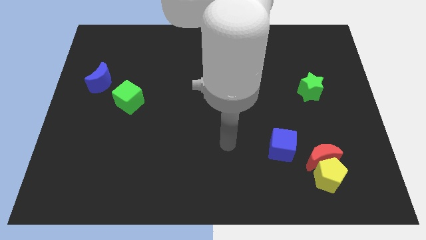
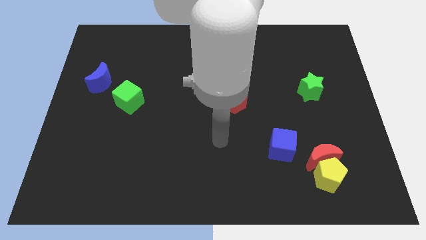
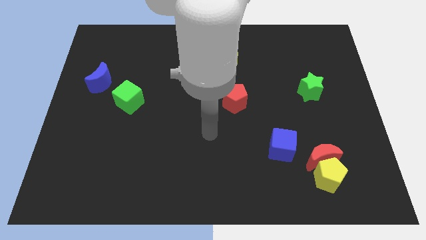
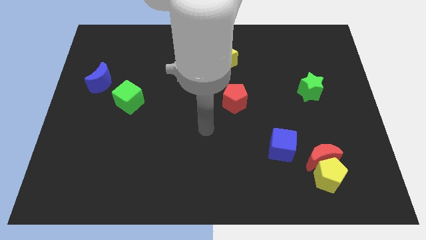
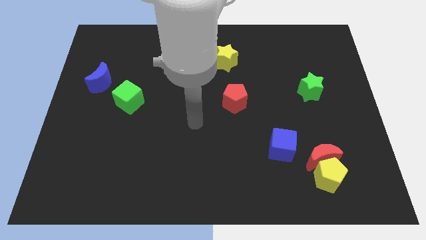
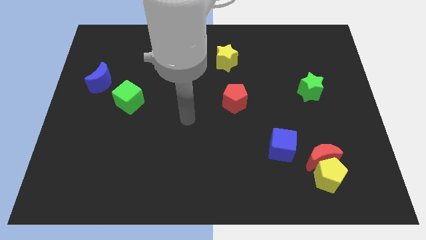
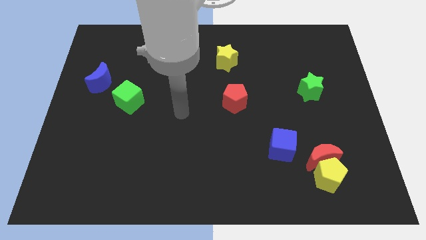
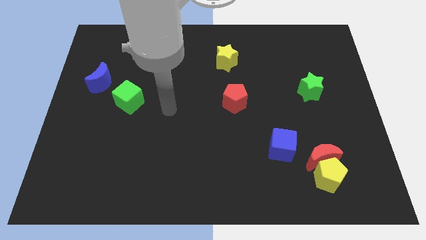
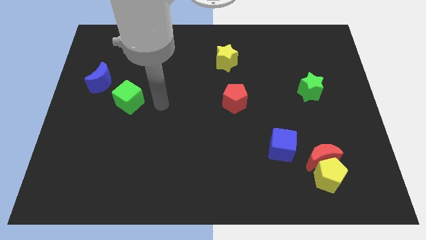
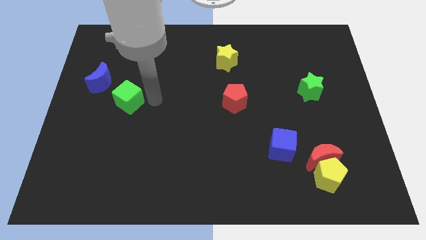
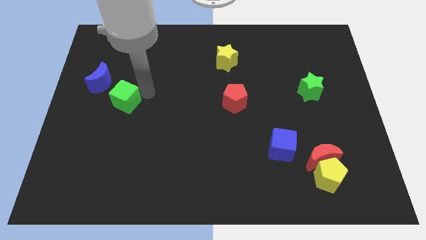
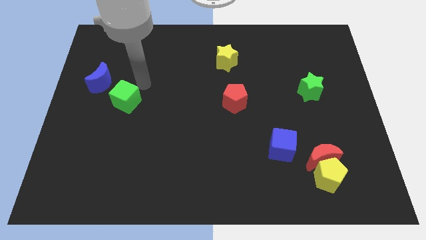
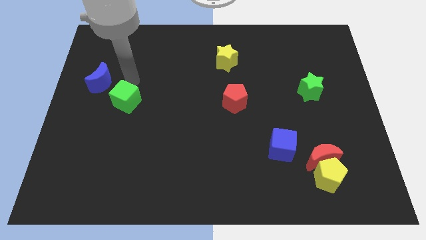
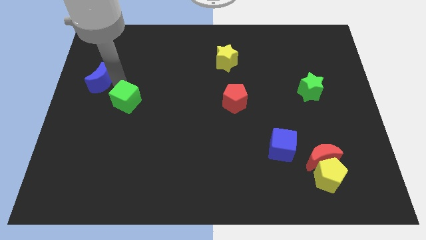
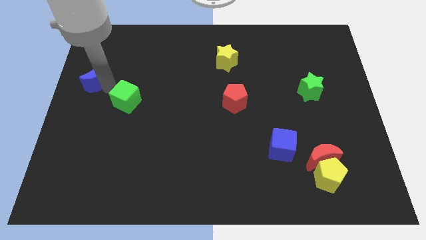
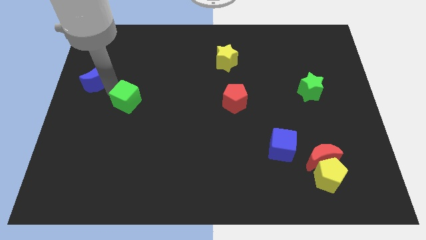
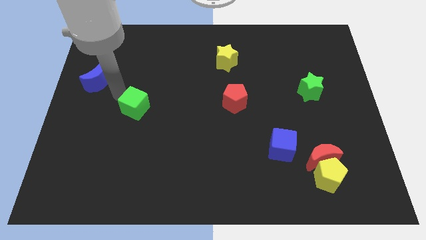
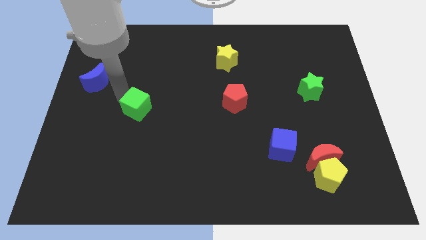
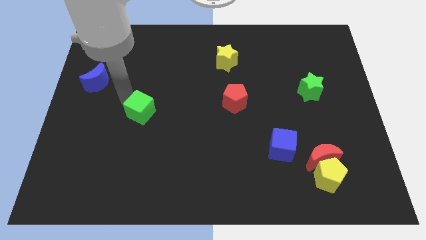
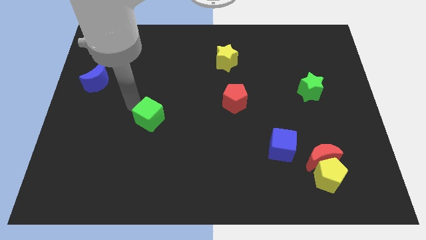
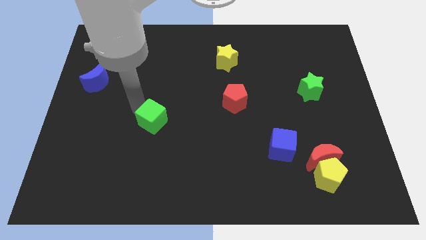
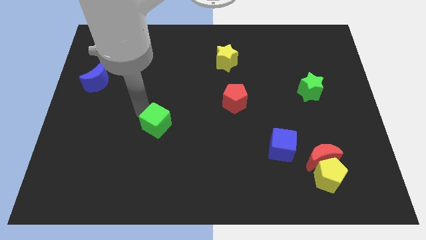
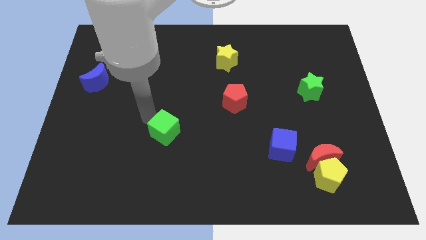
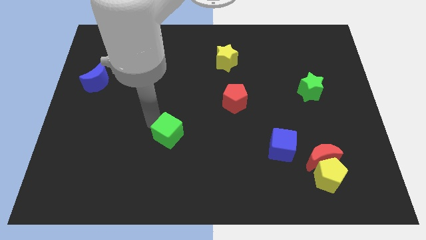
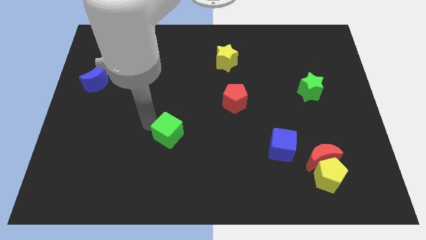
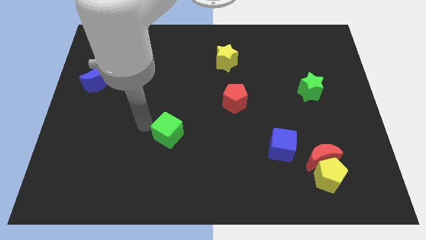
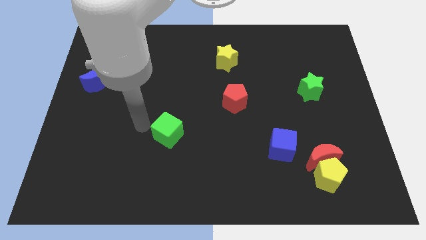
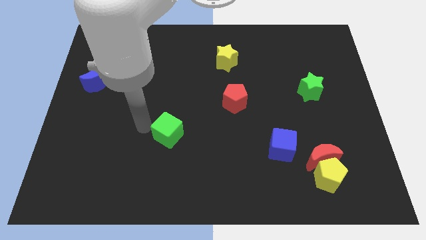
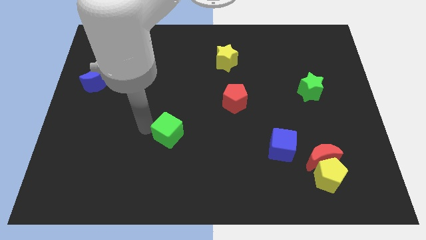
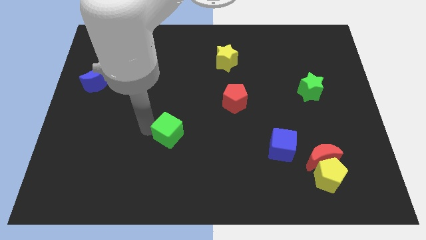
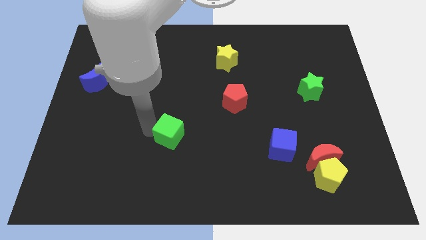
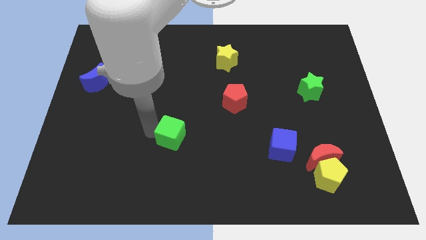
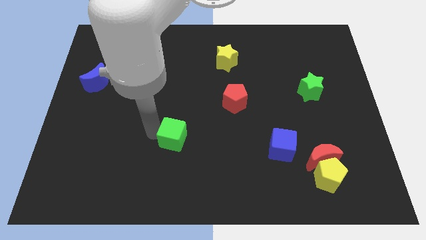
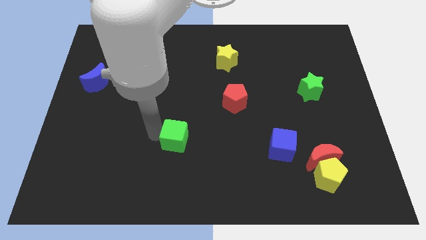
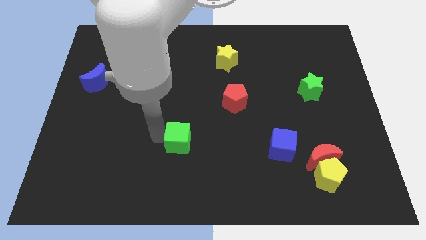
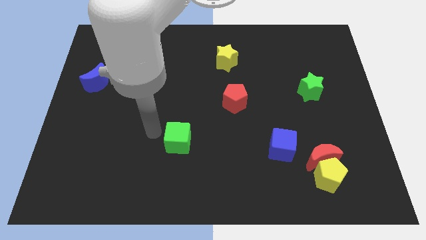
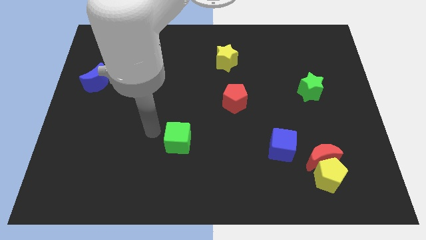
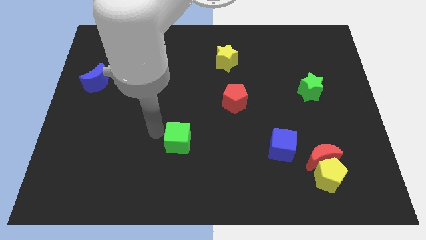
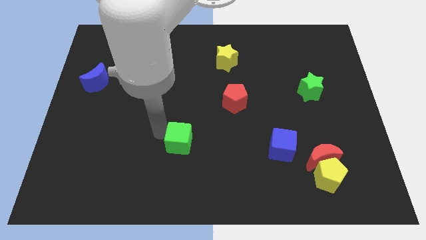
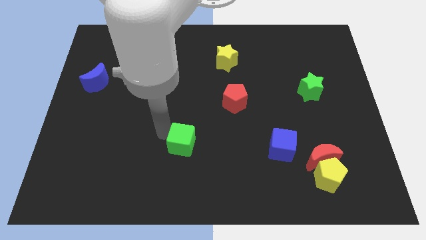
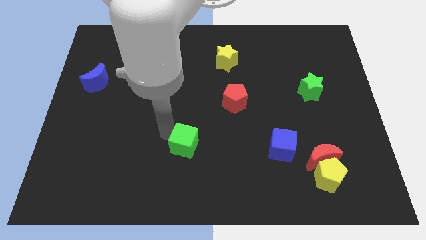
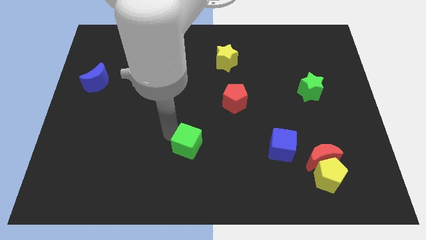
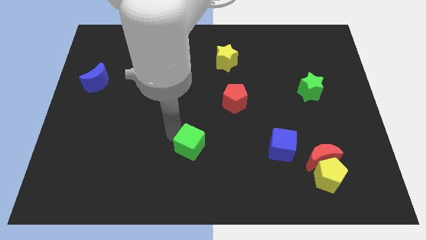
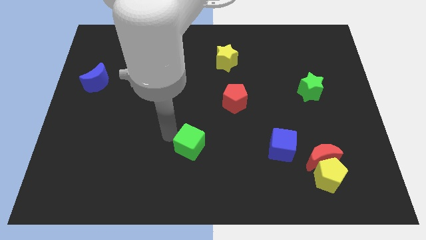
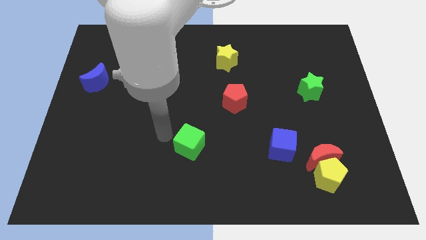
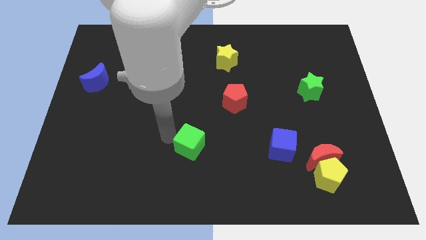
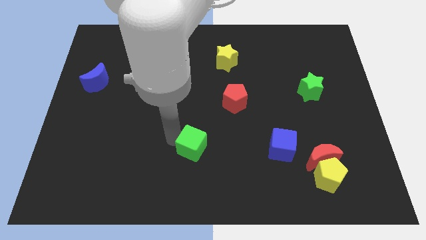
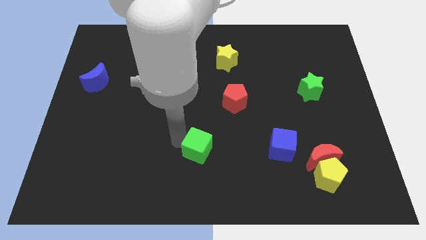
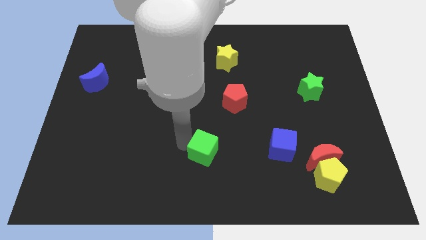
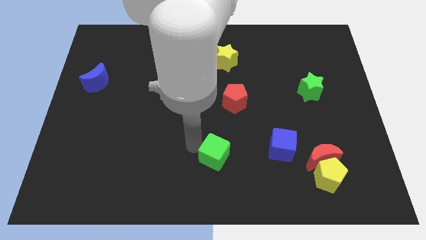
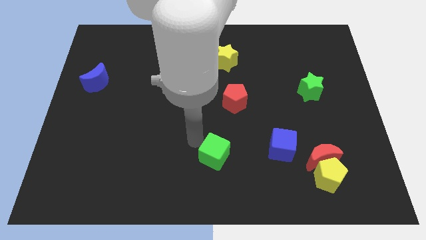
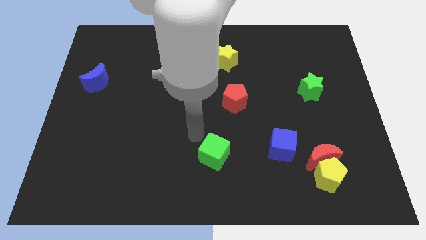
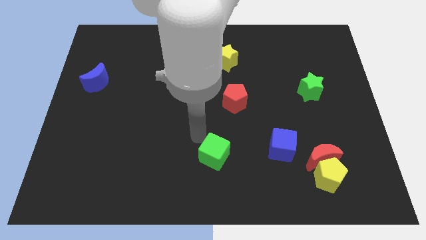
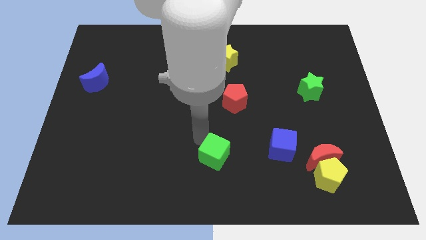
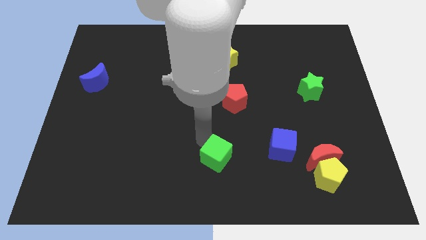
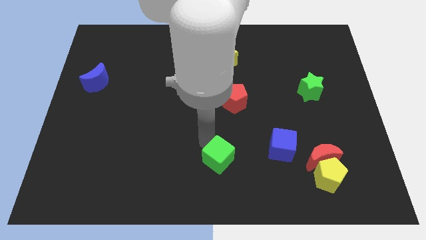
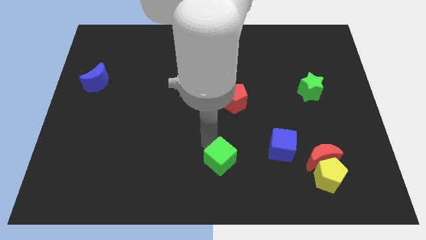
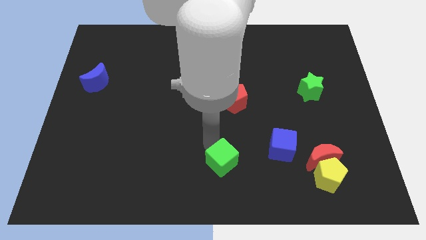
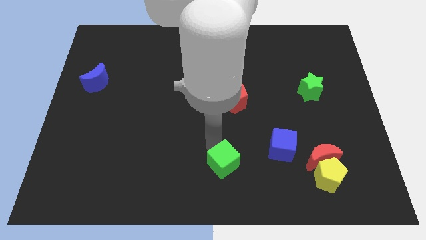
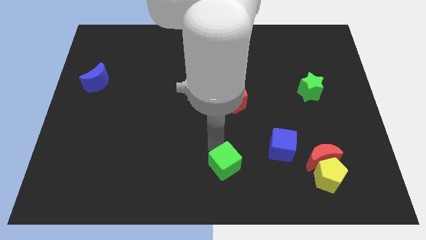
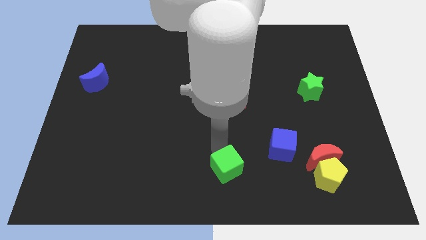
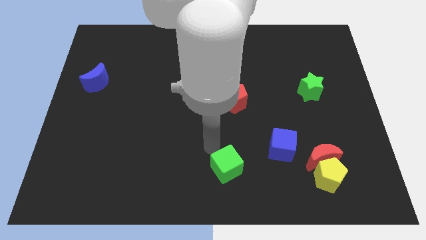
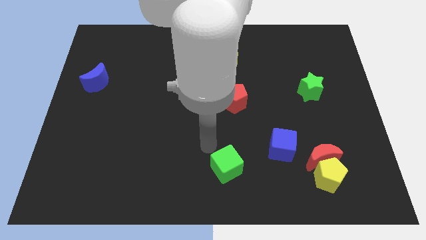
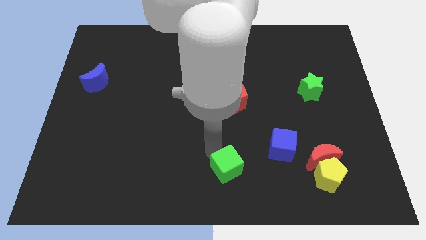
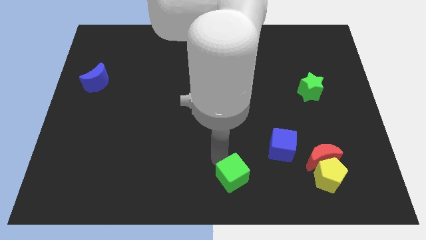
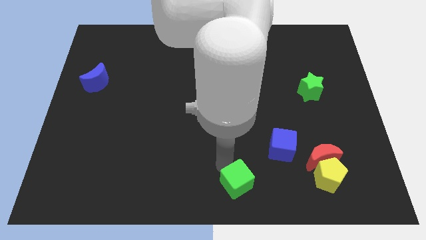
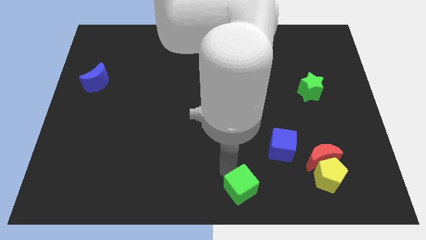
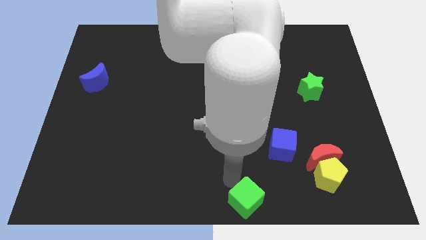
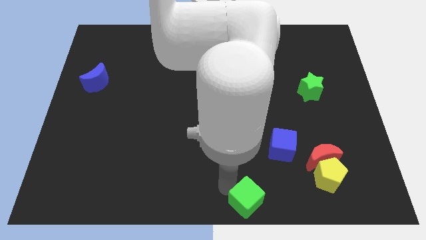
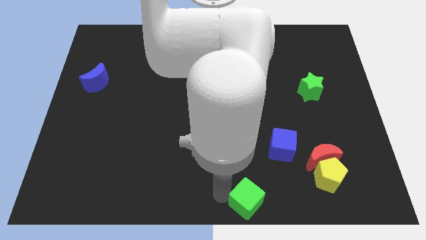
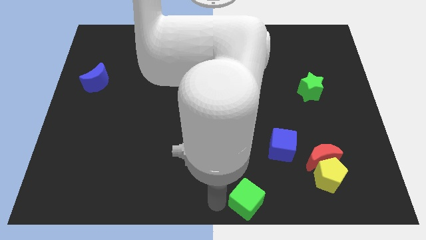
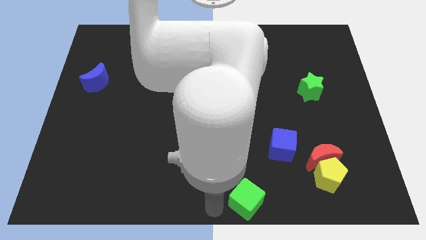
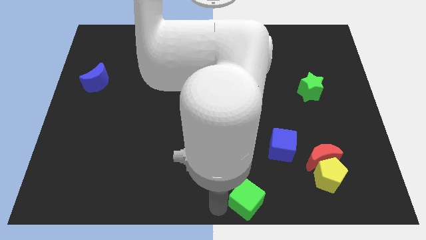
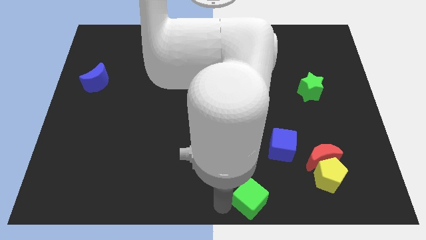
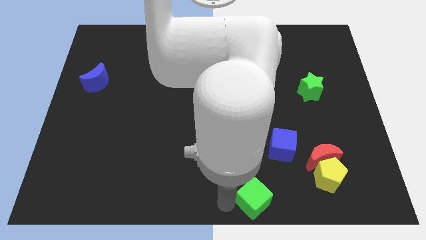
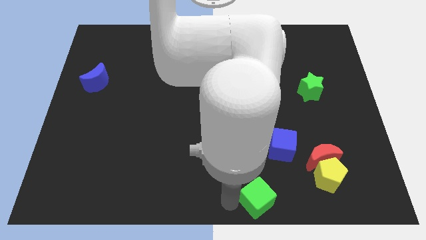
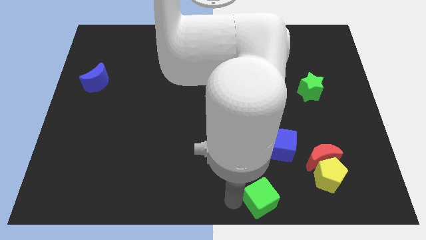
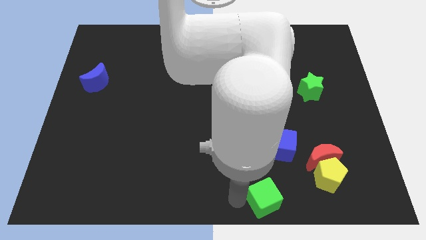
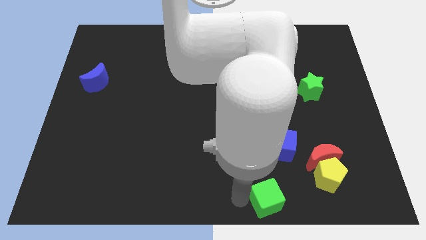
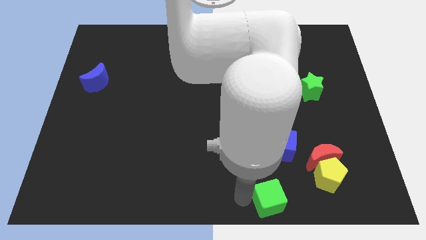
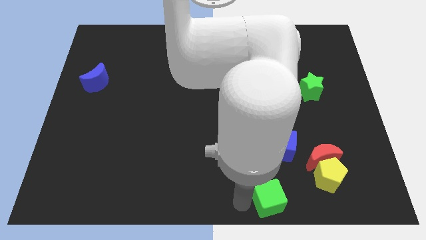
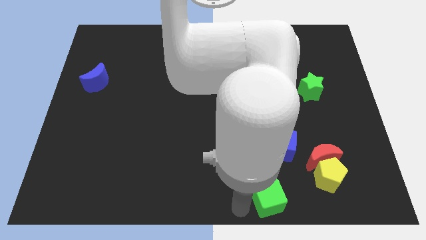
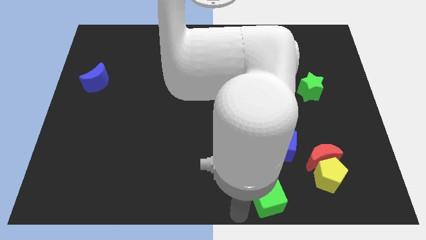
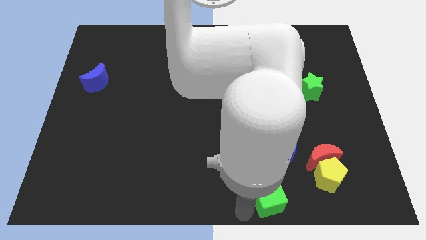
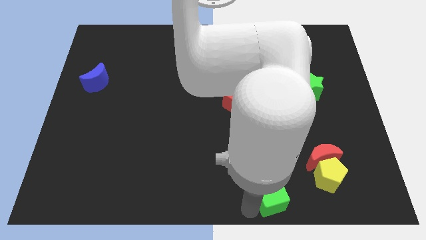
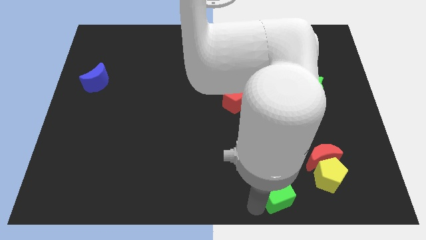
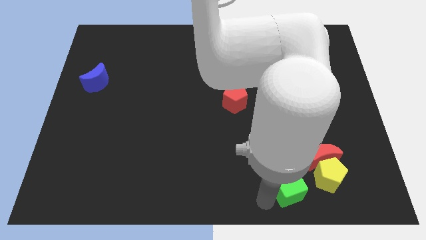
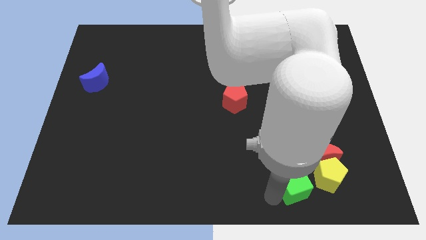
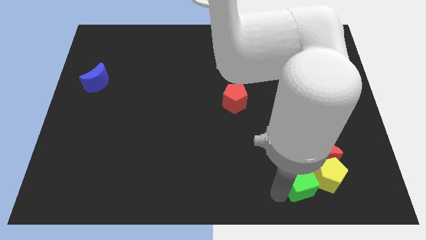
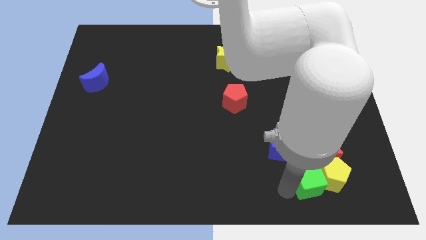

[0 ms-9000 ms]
move the green cube close to the yellow pentagon
